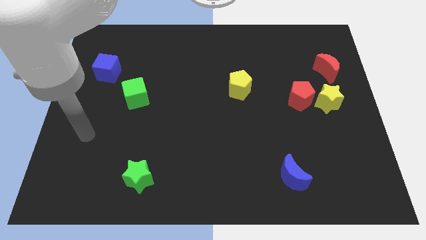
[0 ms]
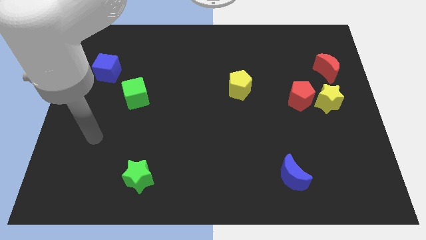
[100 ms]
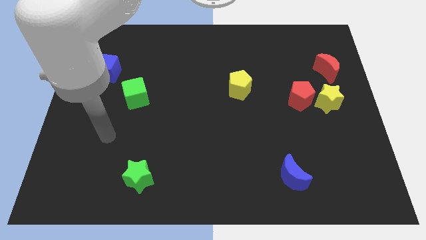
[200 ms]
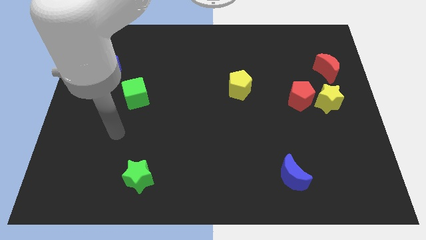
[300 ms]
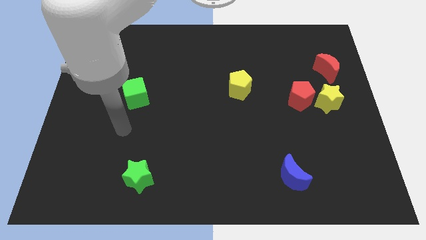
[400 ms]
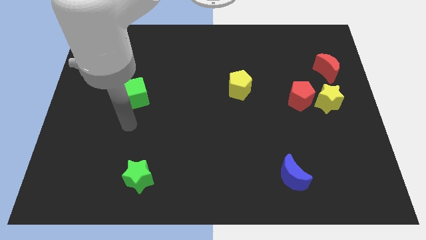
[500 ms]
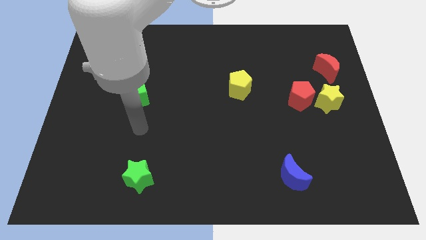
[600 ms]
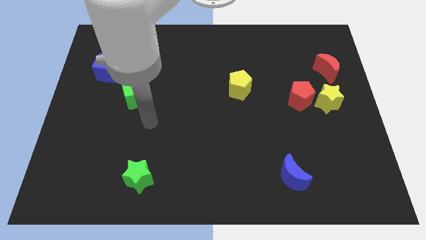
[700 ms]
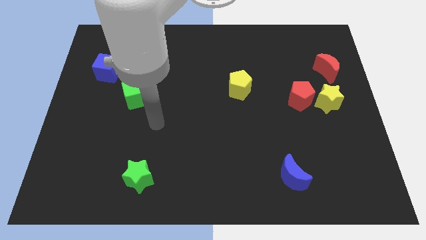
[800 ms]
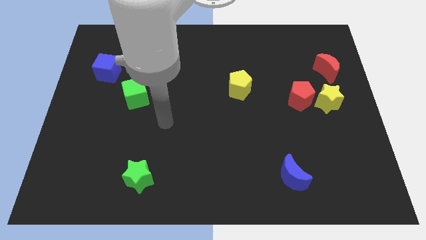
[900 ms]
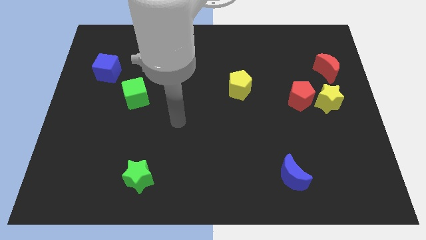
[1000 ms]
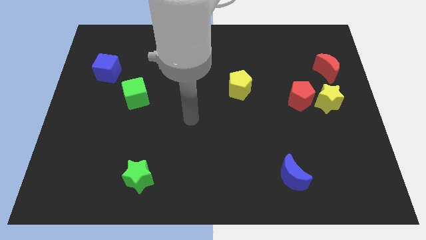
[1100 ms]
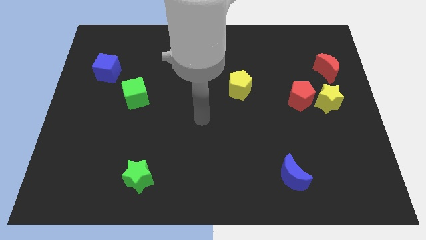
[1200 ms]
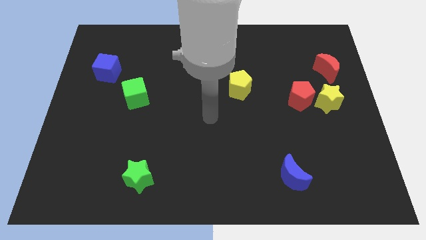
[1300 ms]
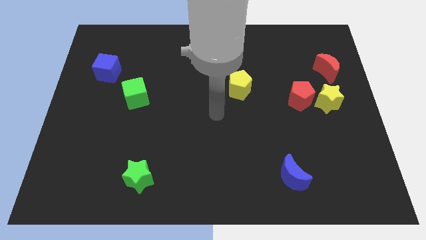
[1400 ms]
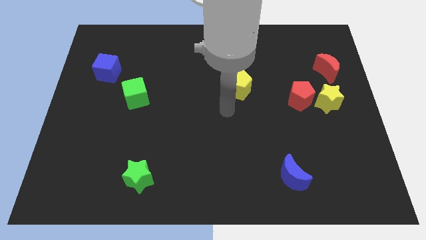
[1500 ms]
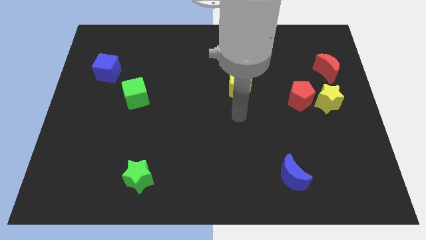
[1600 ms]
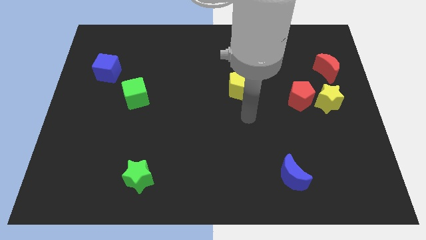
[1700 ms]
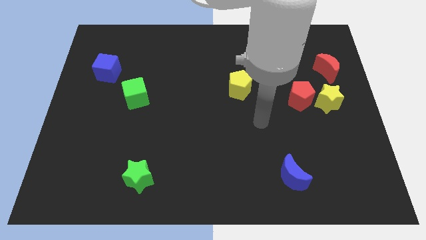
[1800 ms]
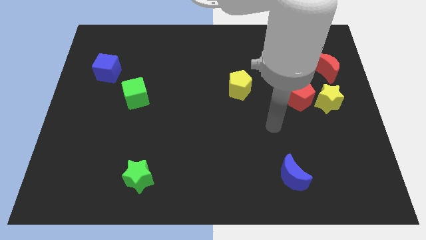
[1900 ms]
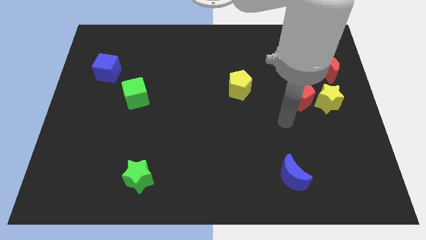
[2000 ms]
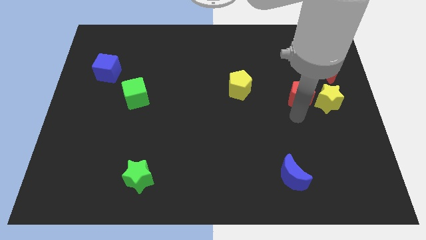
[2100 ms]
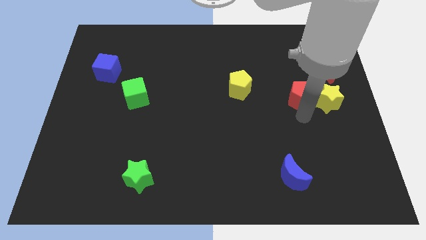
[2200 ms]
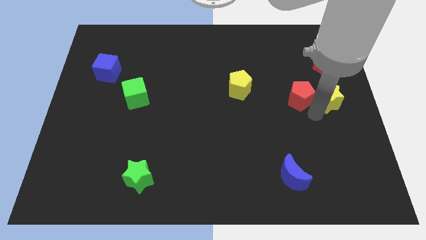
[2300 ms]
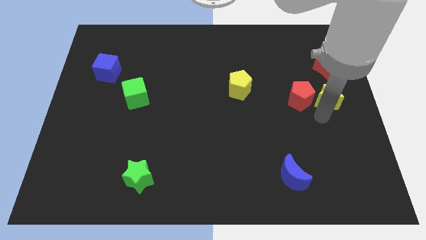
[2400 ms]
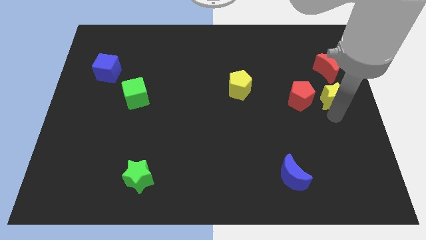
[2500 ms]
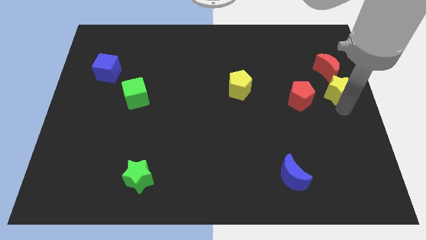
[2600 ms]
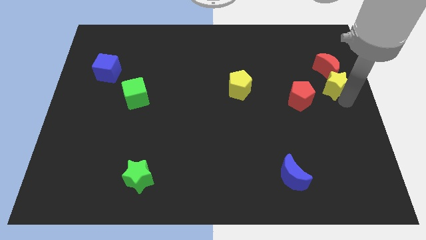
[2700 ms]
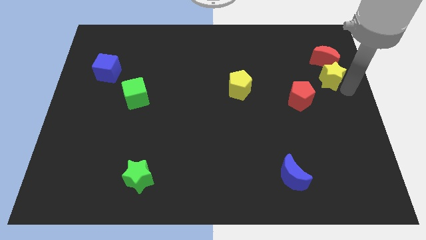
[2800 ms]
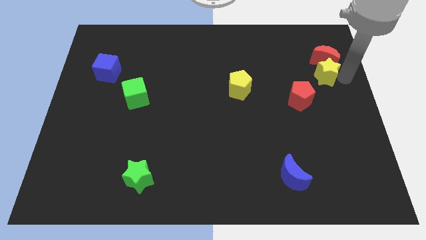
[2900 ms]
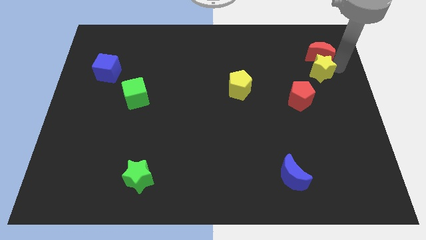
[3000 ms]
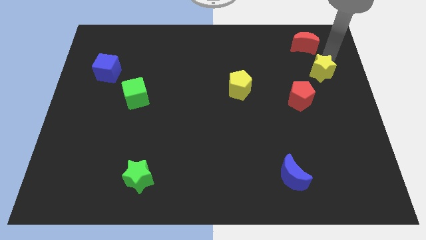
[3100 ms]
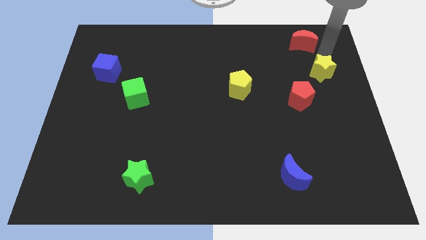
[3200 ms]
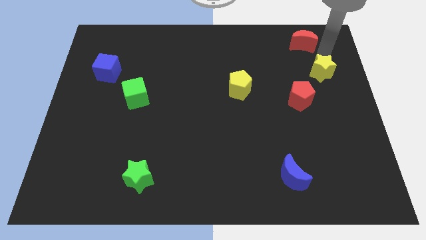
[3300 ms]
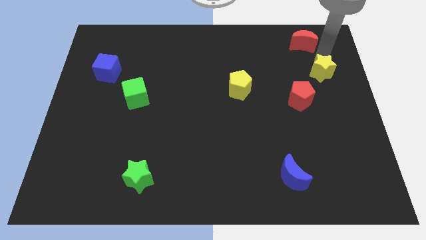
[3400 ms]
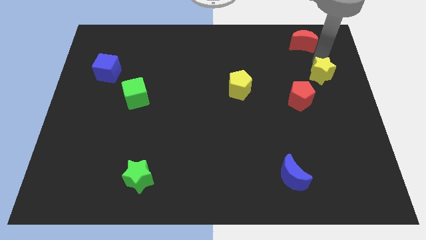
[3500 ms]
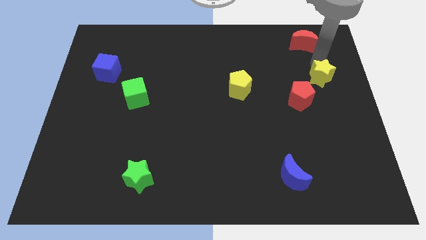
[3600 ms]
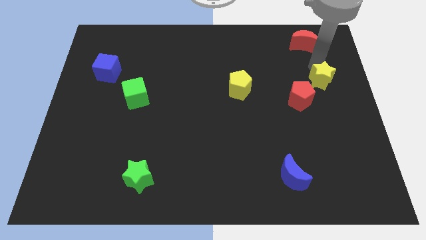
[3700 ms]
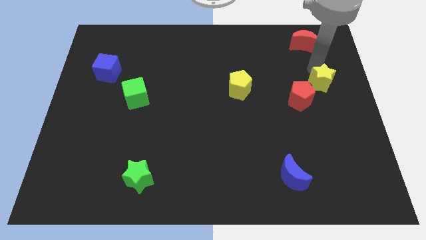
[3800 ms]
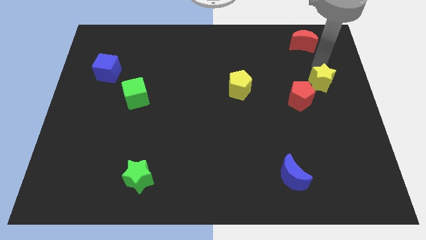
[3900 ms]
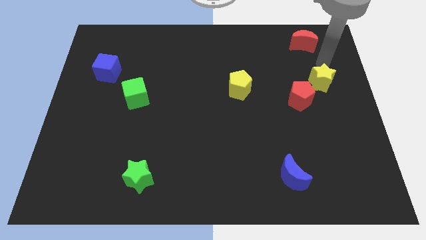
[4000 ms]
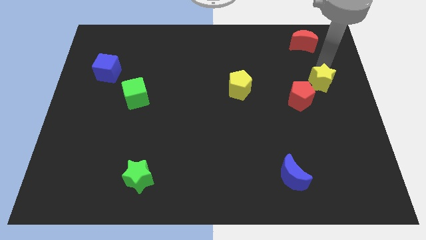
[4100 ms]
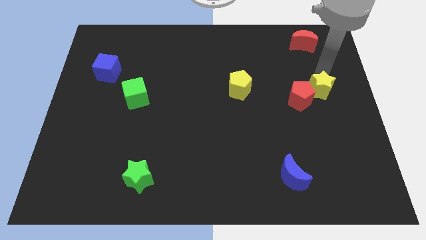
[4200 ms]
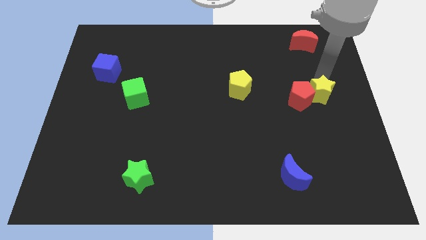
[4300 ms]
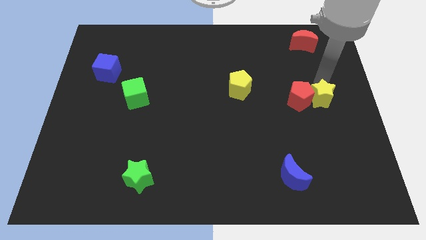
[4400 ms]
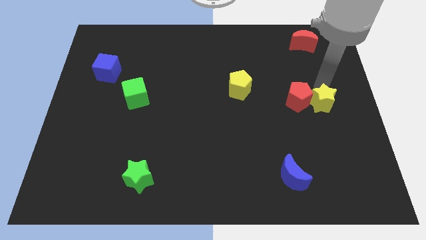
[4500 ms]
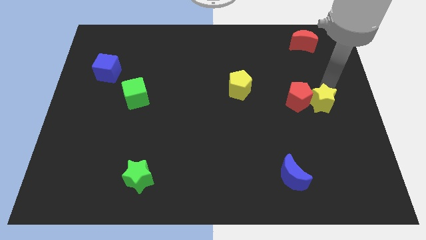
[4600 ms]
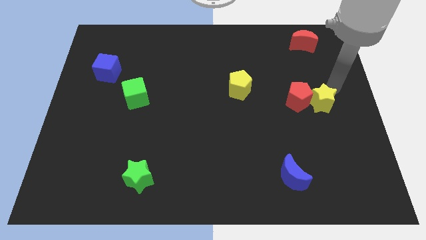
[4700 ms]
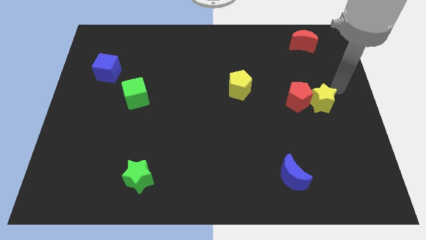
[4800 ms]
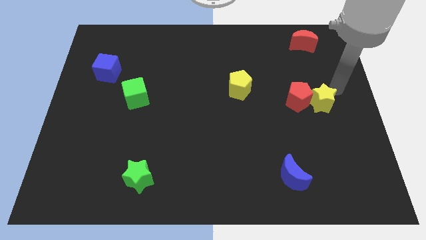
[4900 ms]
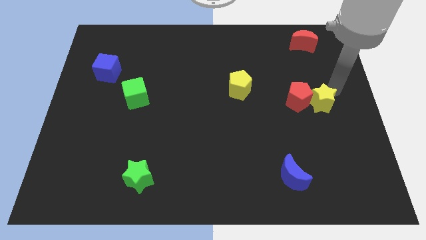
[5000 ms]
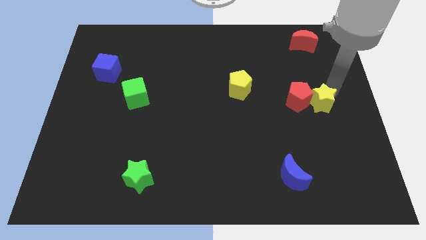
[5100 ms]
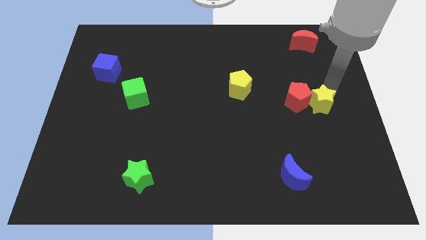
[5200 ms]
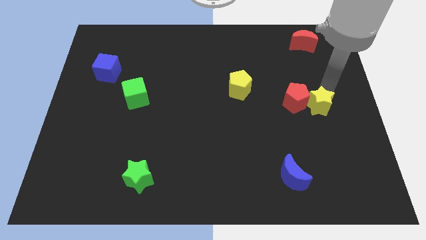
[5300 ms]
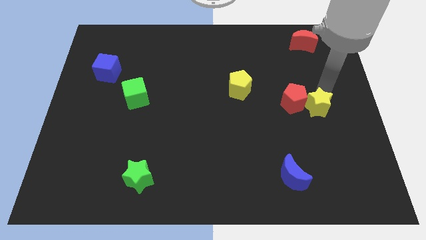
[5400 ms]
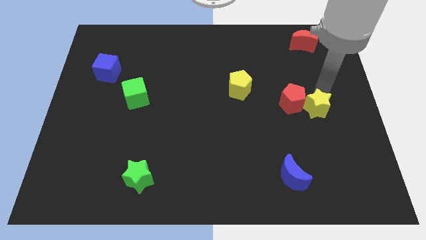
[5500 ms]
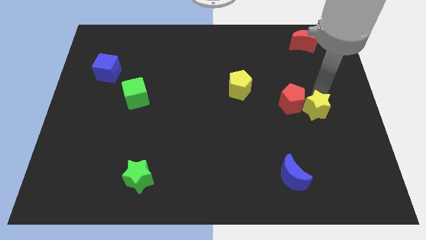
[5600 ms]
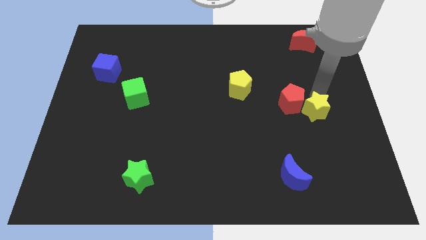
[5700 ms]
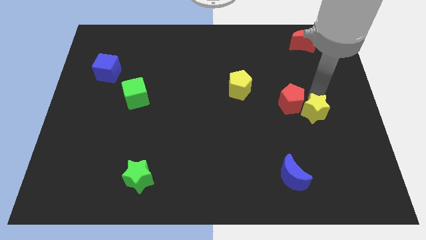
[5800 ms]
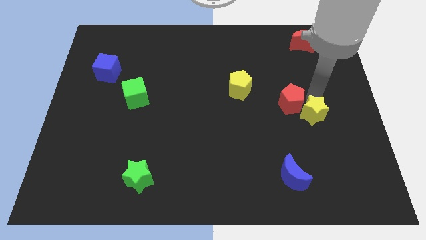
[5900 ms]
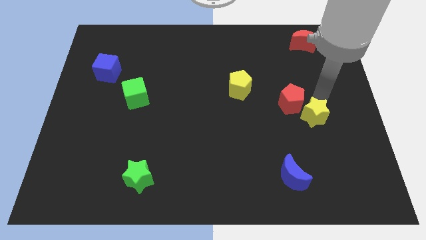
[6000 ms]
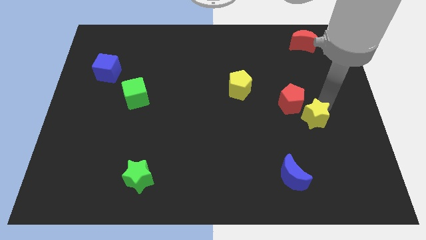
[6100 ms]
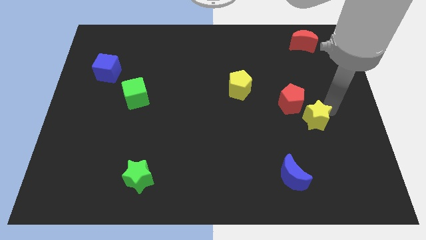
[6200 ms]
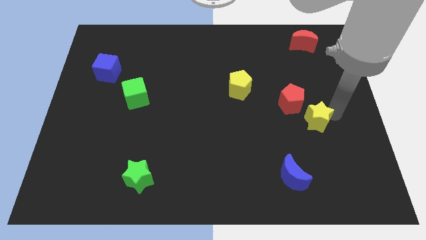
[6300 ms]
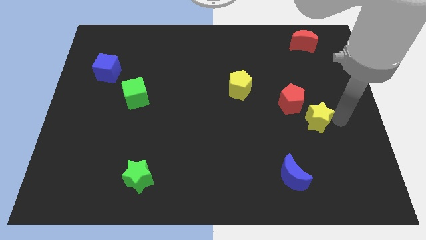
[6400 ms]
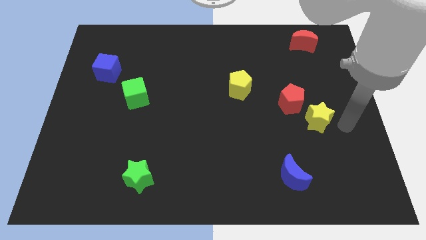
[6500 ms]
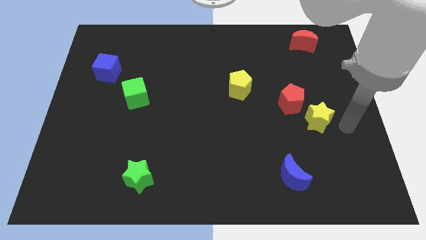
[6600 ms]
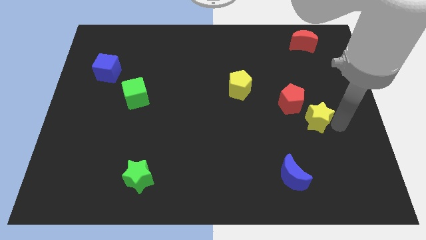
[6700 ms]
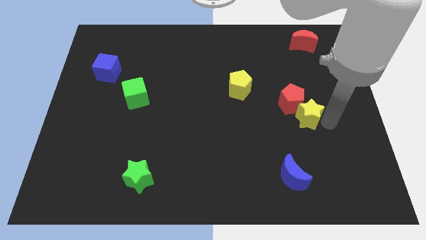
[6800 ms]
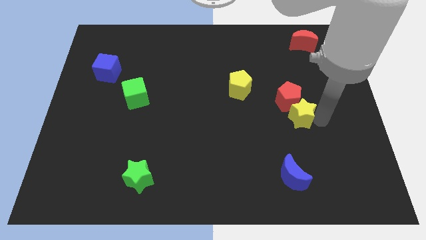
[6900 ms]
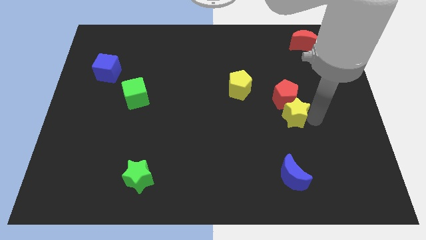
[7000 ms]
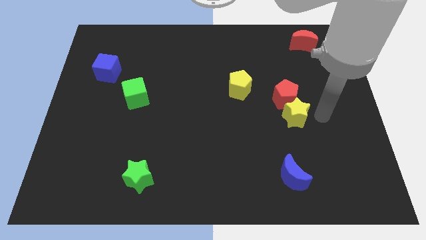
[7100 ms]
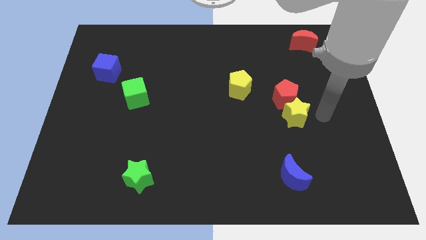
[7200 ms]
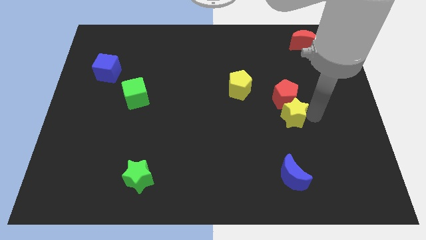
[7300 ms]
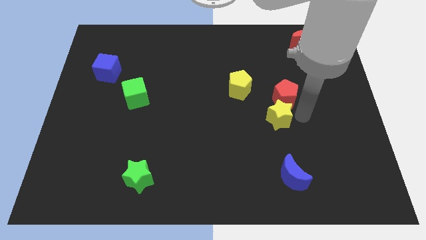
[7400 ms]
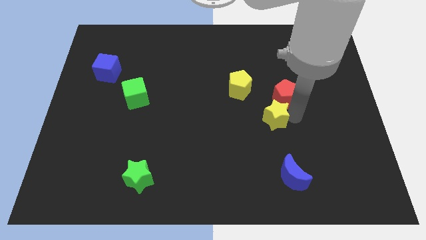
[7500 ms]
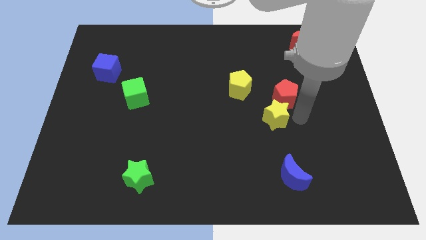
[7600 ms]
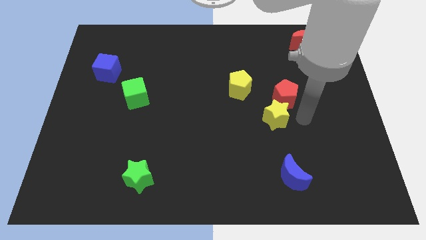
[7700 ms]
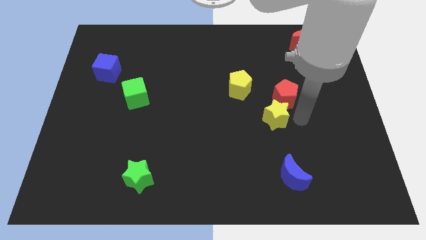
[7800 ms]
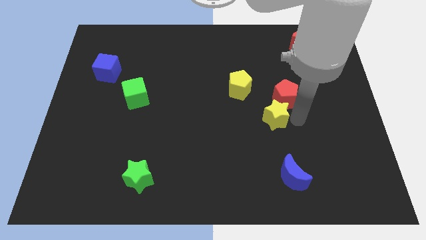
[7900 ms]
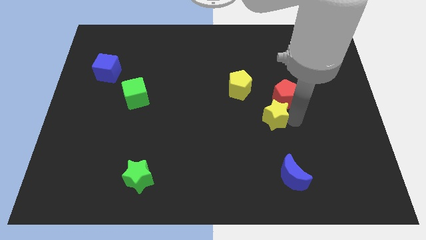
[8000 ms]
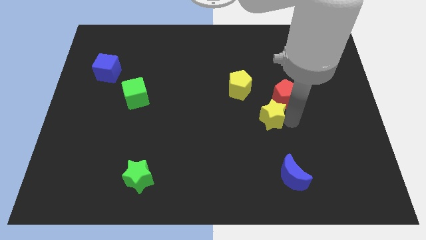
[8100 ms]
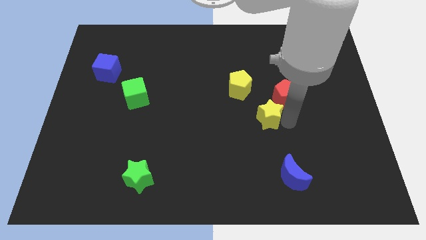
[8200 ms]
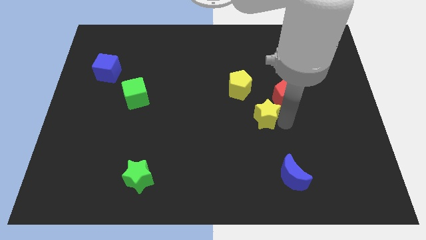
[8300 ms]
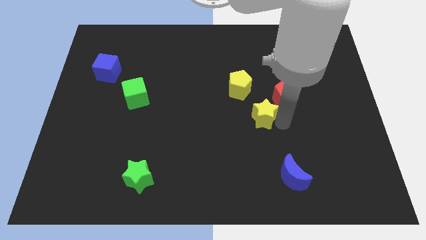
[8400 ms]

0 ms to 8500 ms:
slide the yellow star to the middle
